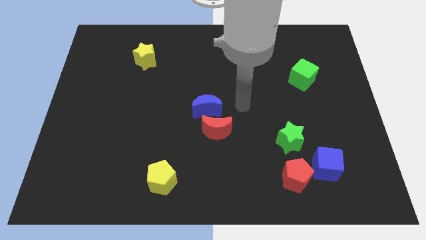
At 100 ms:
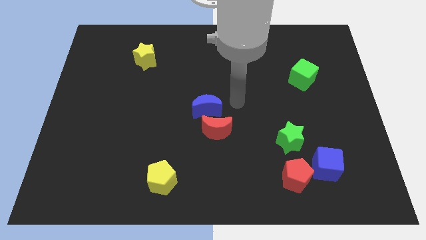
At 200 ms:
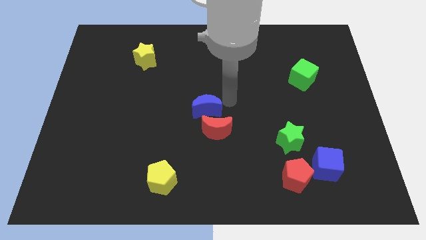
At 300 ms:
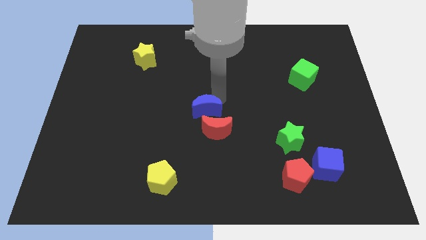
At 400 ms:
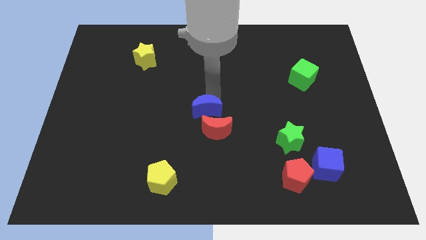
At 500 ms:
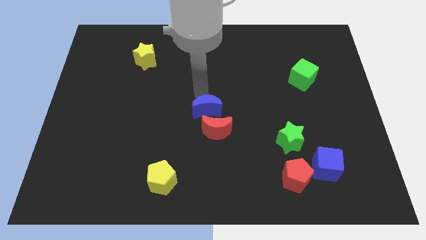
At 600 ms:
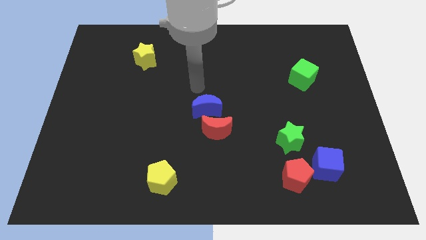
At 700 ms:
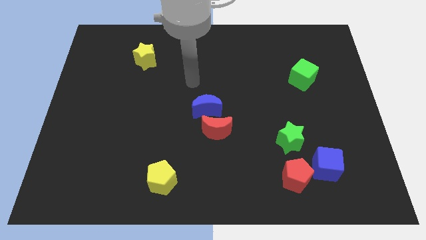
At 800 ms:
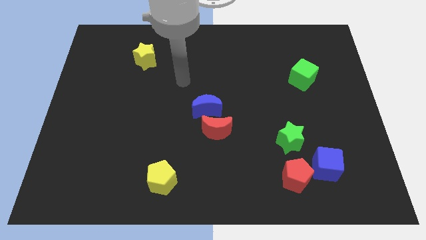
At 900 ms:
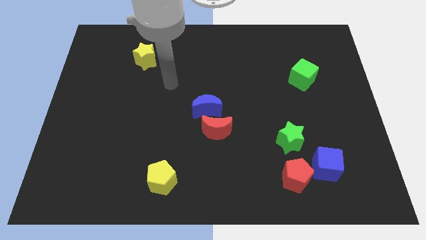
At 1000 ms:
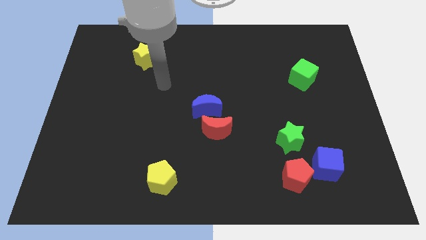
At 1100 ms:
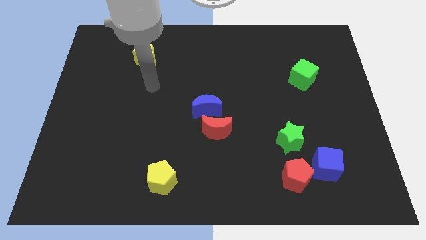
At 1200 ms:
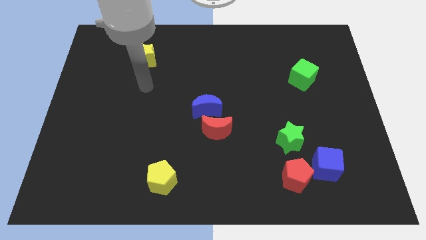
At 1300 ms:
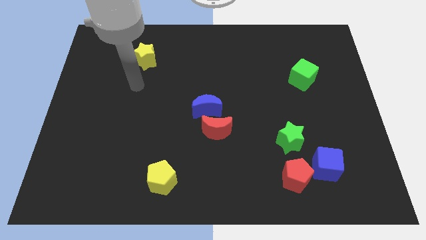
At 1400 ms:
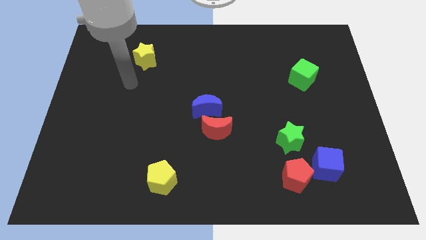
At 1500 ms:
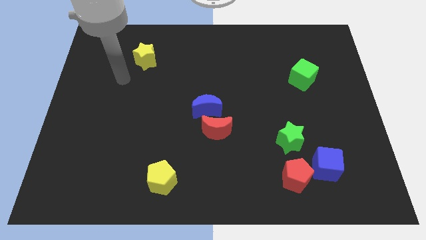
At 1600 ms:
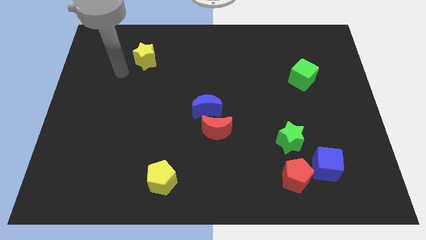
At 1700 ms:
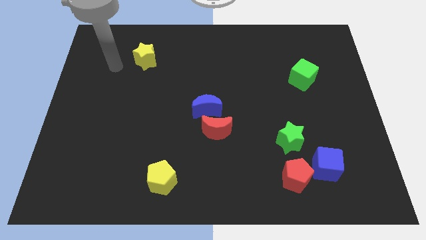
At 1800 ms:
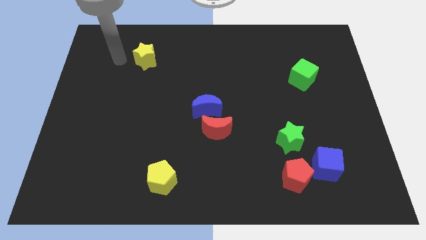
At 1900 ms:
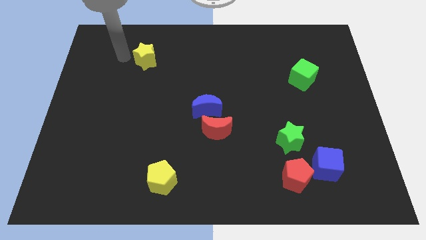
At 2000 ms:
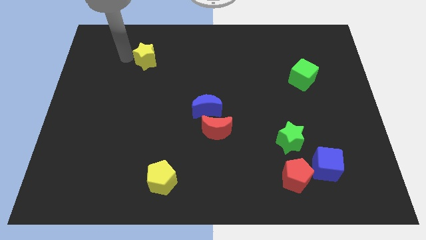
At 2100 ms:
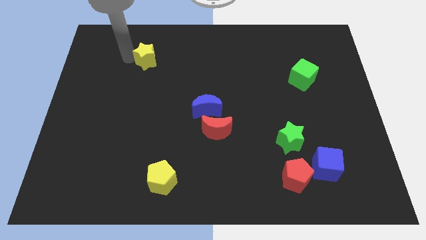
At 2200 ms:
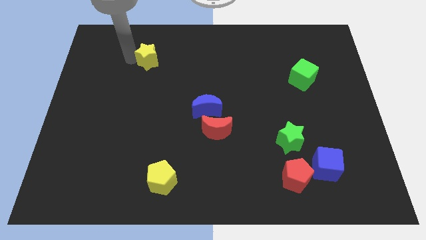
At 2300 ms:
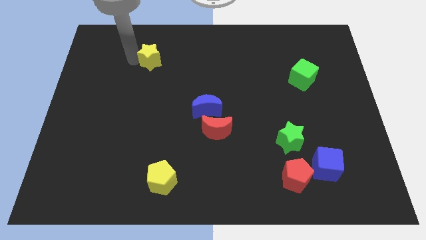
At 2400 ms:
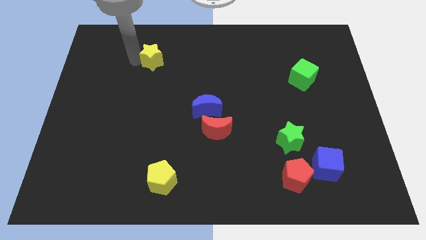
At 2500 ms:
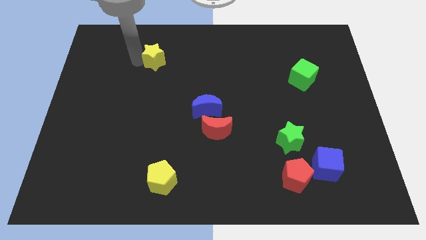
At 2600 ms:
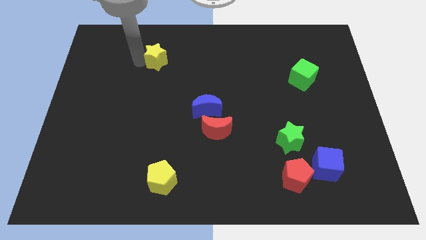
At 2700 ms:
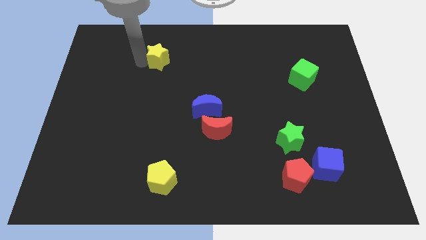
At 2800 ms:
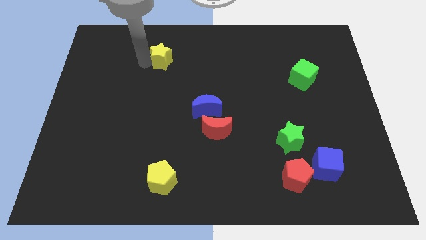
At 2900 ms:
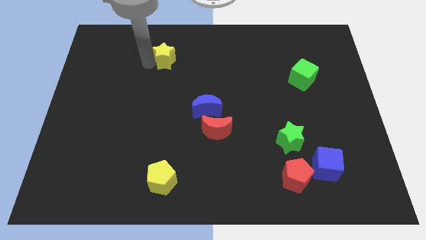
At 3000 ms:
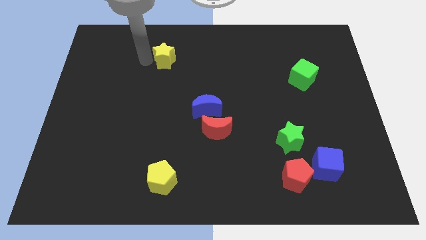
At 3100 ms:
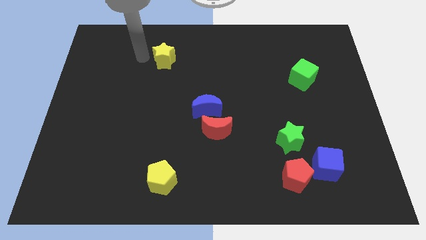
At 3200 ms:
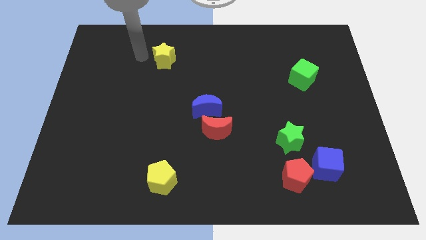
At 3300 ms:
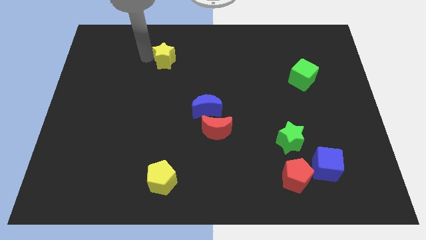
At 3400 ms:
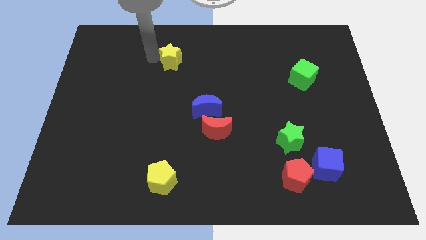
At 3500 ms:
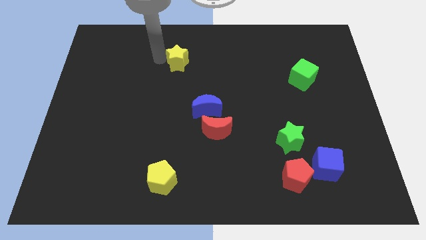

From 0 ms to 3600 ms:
slightly slide the yellow star to the right

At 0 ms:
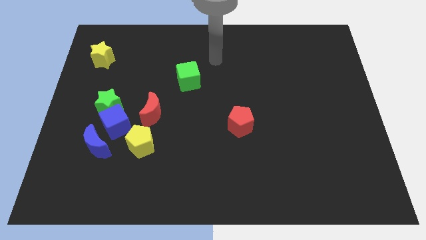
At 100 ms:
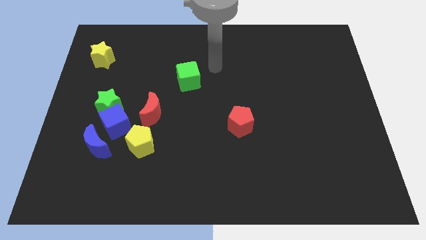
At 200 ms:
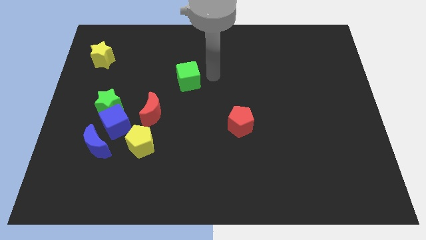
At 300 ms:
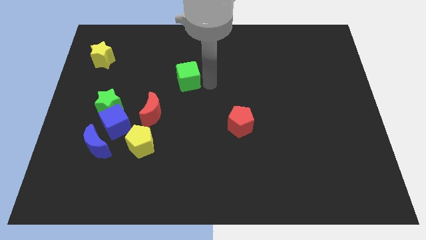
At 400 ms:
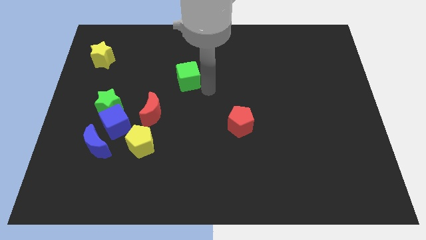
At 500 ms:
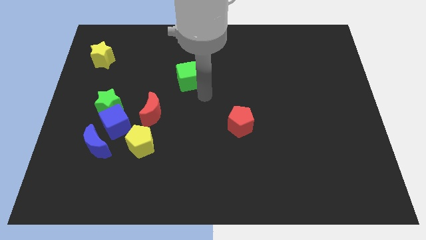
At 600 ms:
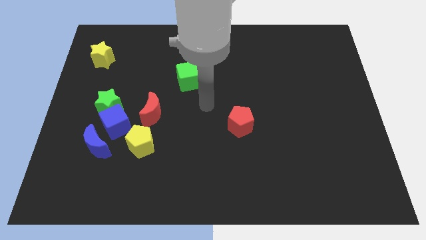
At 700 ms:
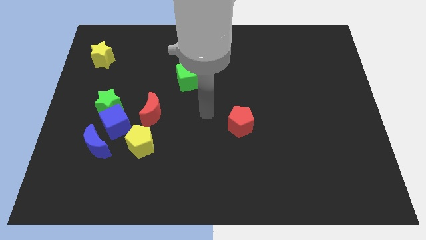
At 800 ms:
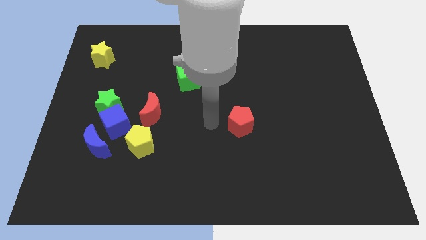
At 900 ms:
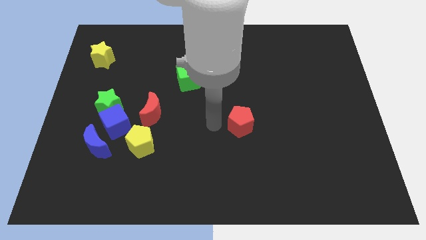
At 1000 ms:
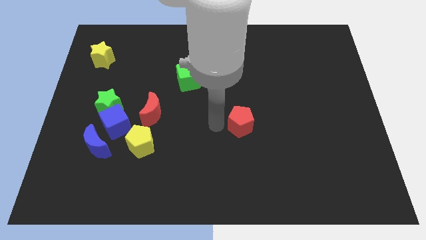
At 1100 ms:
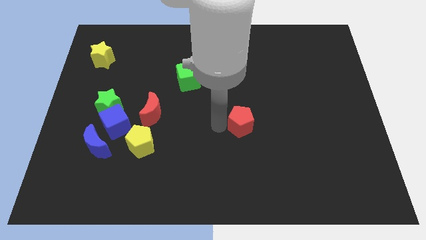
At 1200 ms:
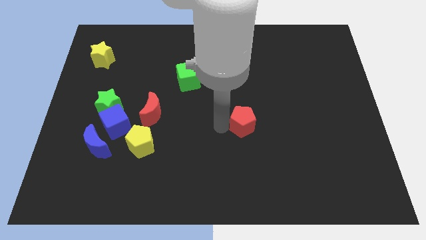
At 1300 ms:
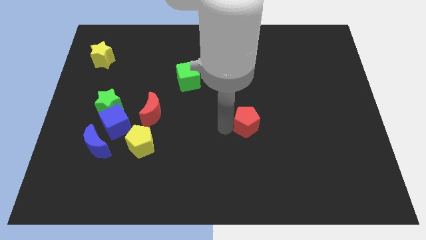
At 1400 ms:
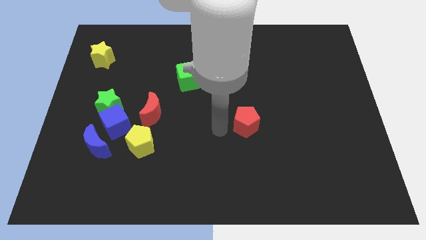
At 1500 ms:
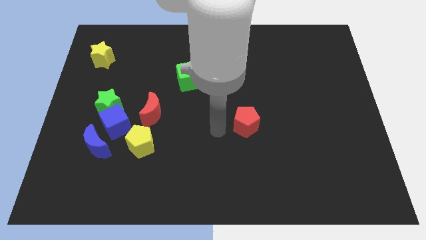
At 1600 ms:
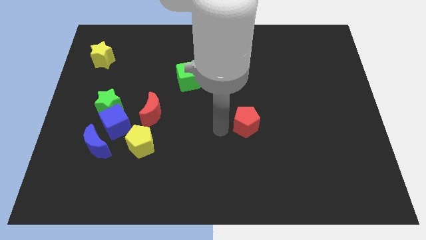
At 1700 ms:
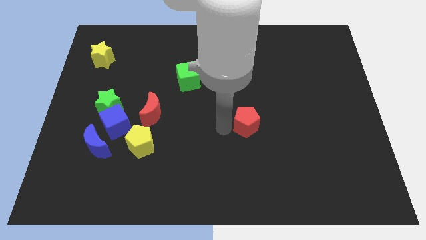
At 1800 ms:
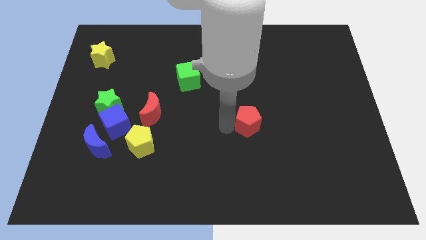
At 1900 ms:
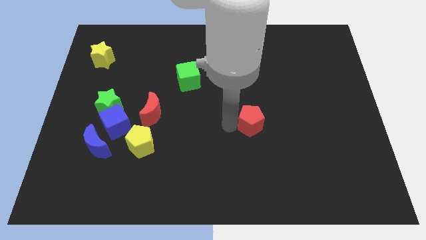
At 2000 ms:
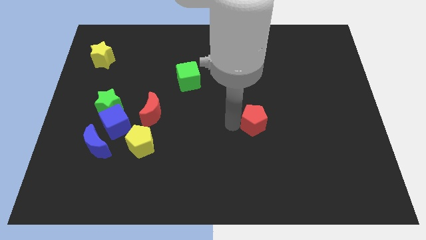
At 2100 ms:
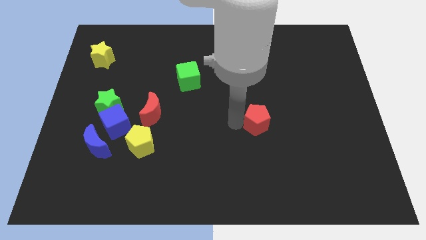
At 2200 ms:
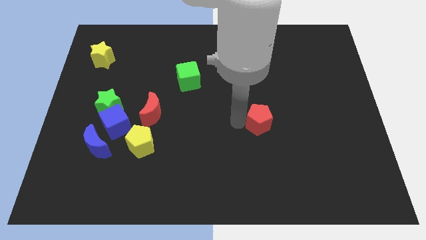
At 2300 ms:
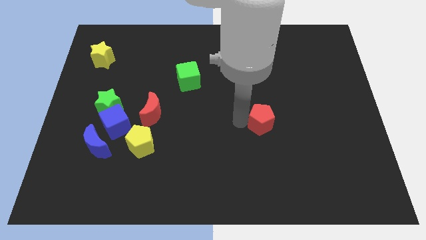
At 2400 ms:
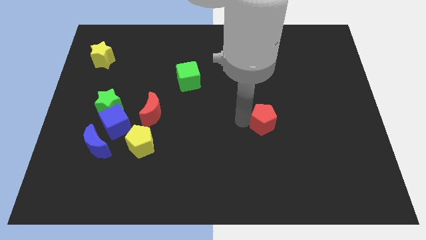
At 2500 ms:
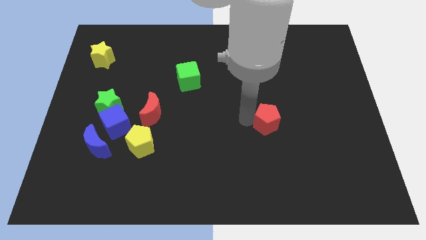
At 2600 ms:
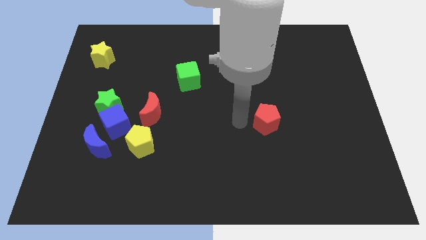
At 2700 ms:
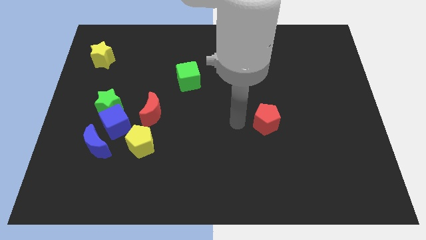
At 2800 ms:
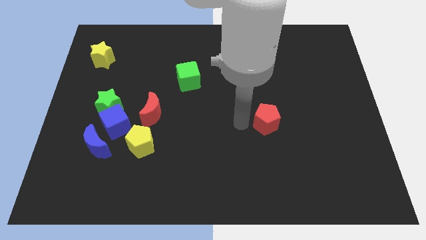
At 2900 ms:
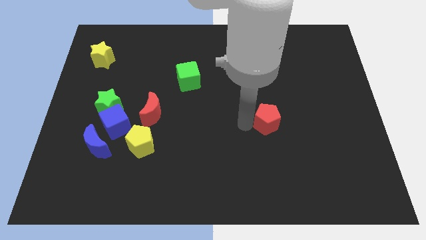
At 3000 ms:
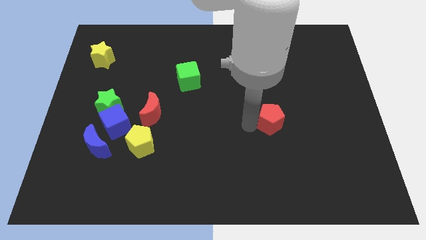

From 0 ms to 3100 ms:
push the red pentagon right a bit

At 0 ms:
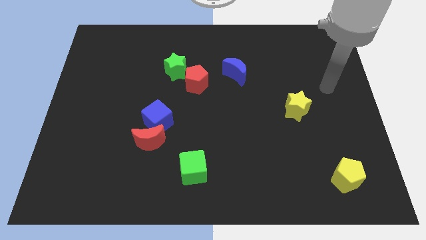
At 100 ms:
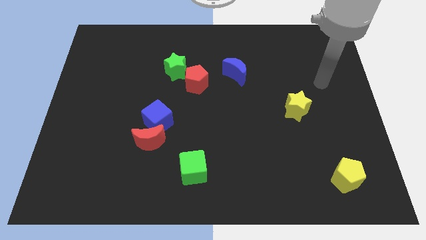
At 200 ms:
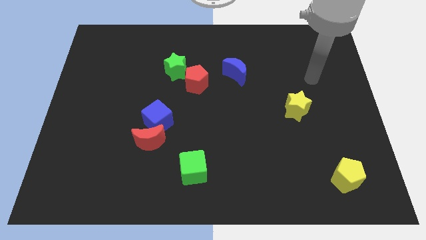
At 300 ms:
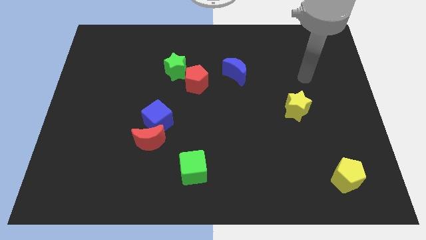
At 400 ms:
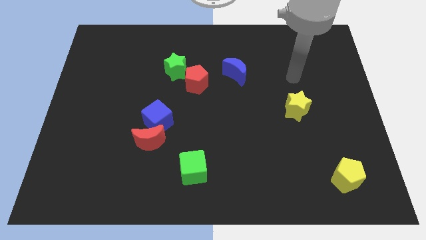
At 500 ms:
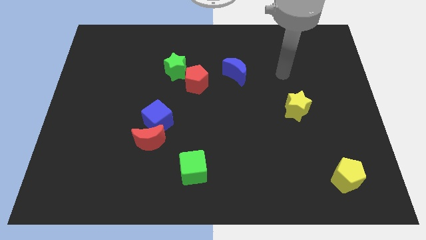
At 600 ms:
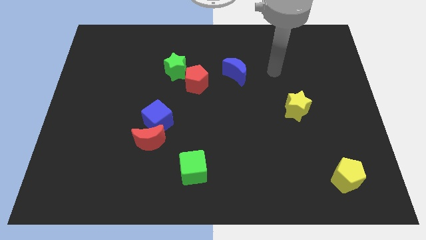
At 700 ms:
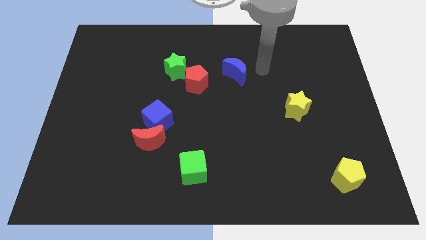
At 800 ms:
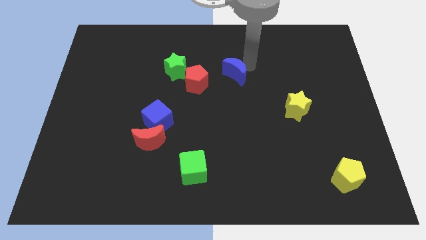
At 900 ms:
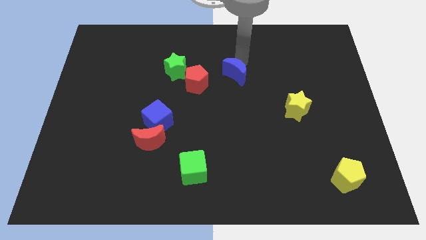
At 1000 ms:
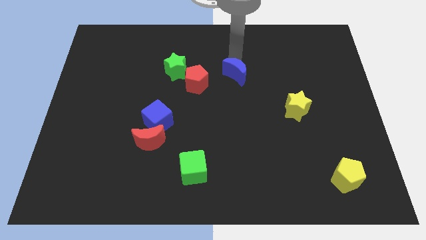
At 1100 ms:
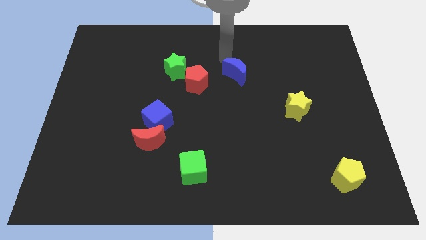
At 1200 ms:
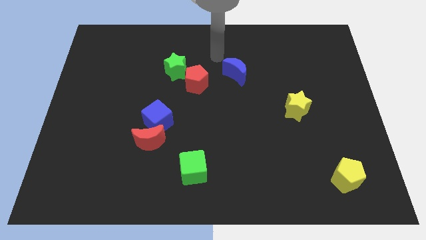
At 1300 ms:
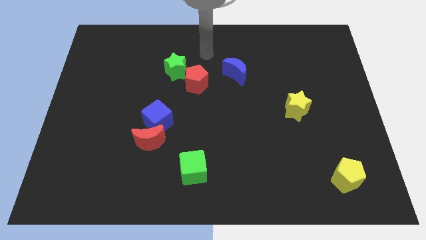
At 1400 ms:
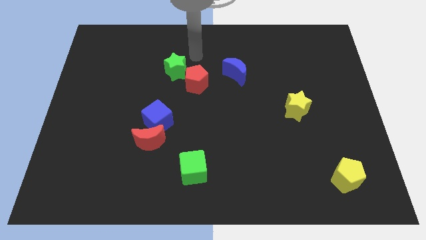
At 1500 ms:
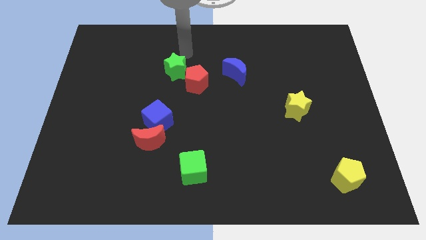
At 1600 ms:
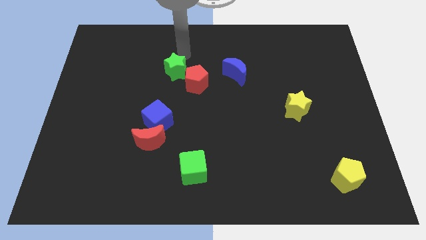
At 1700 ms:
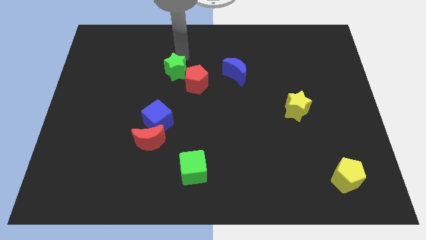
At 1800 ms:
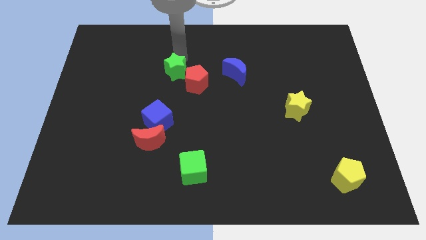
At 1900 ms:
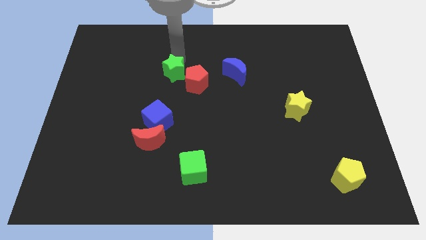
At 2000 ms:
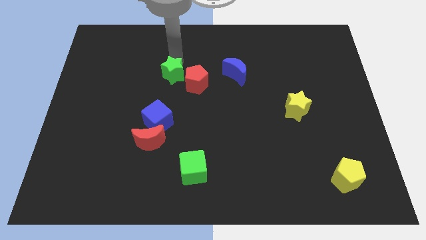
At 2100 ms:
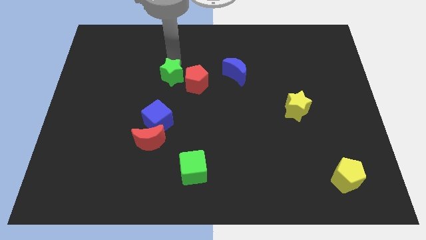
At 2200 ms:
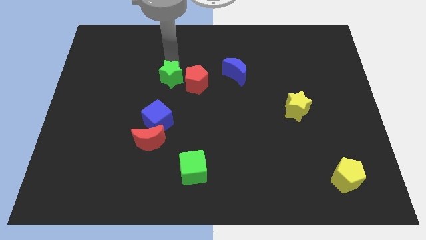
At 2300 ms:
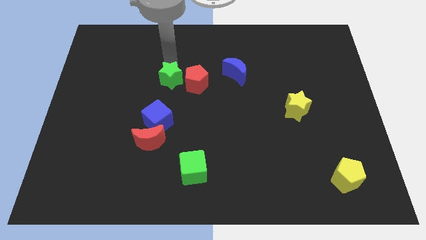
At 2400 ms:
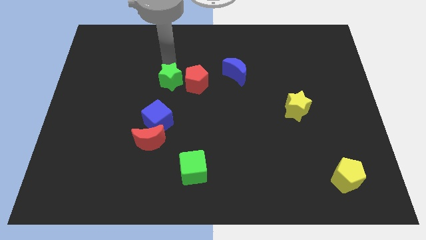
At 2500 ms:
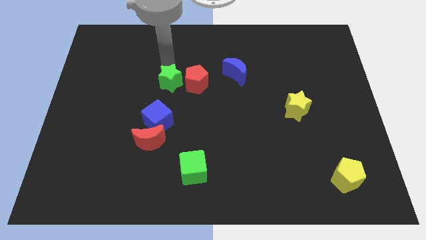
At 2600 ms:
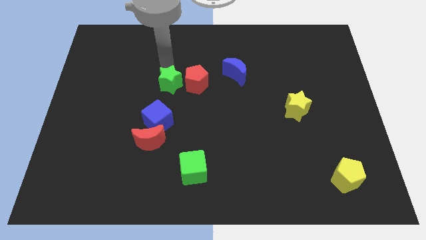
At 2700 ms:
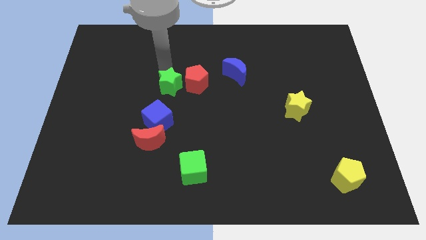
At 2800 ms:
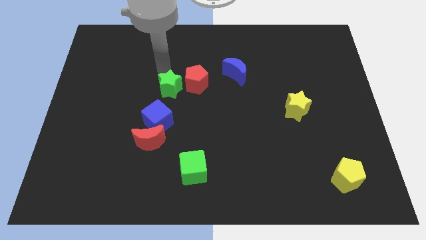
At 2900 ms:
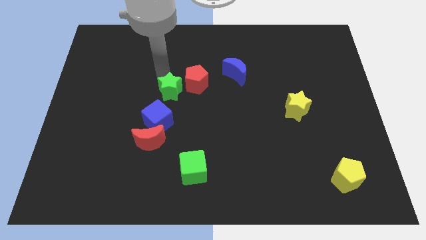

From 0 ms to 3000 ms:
move the green star down slightly
